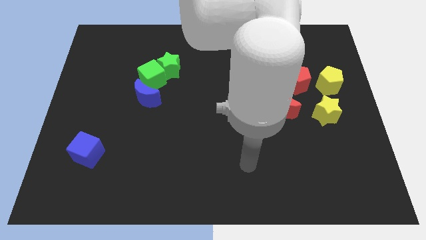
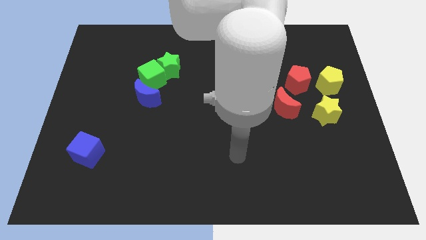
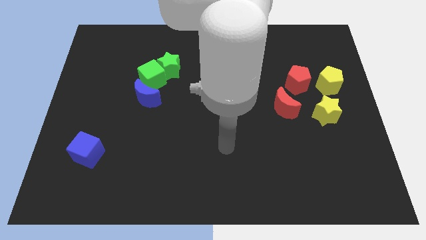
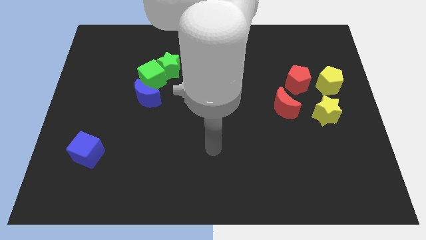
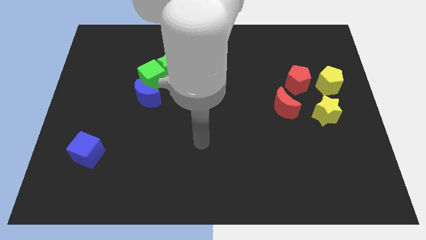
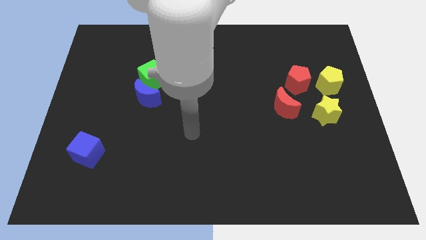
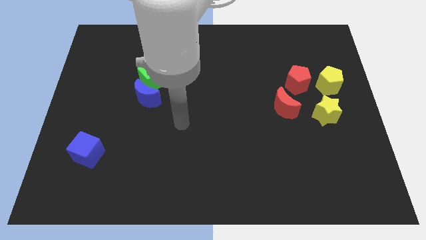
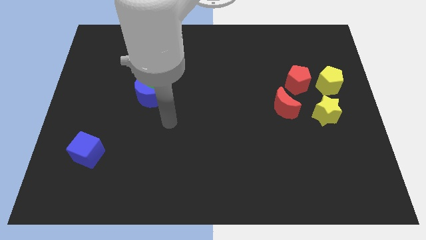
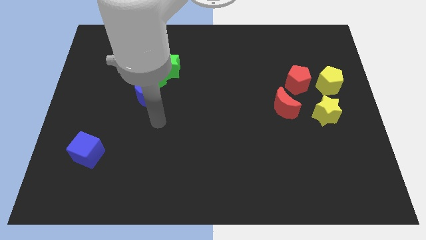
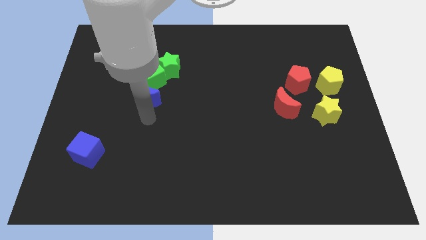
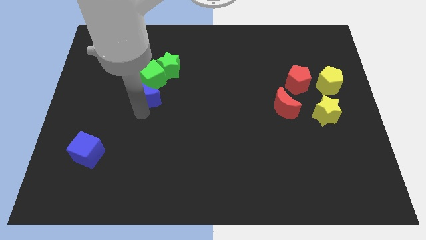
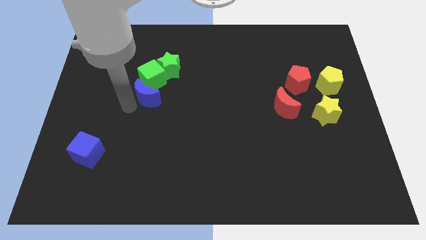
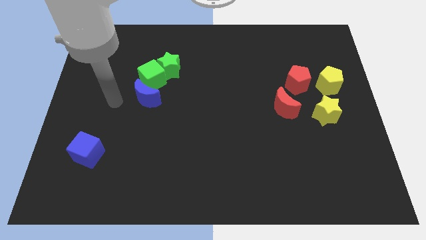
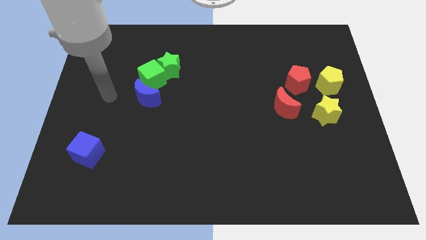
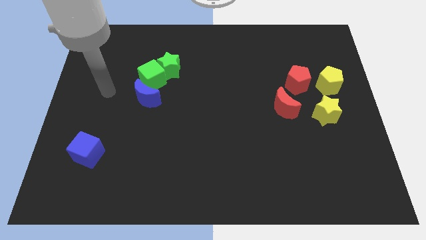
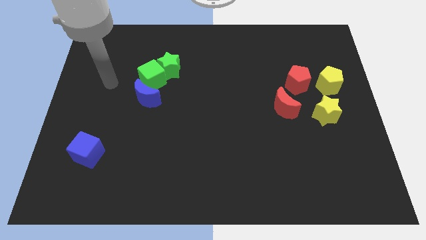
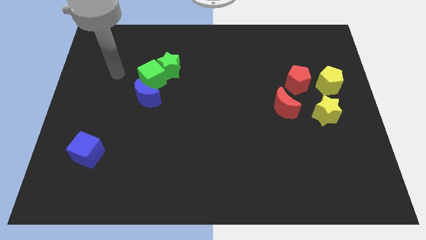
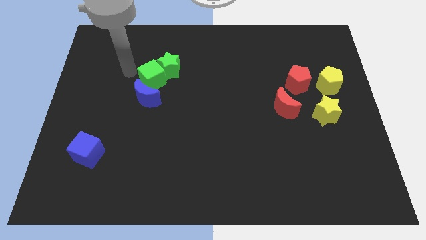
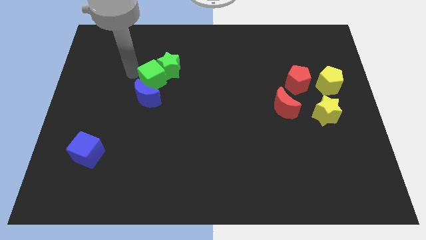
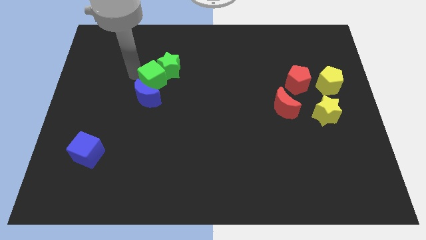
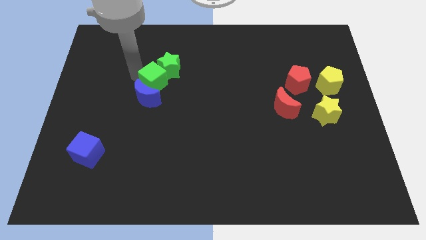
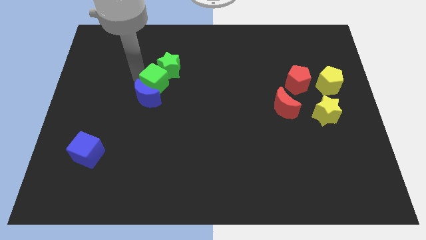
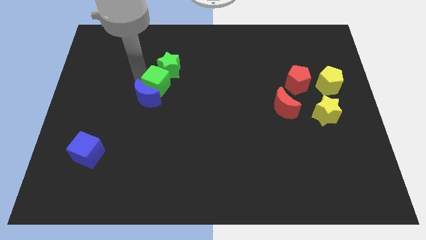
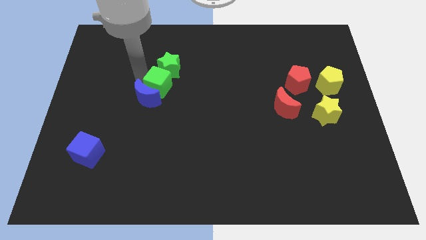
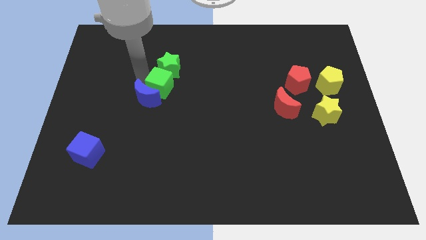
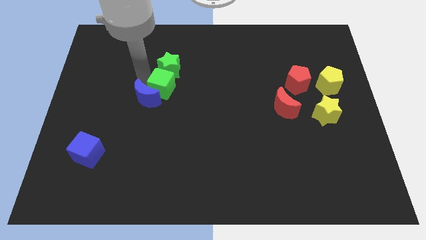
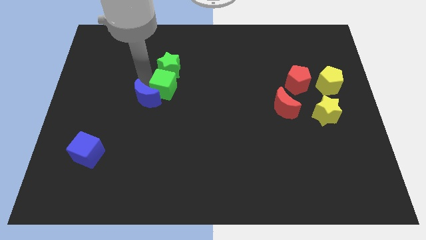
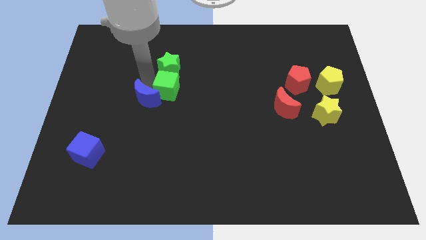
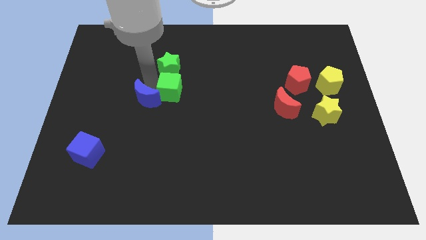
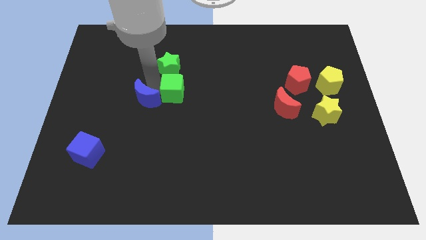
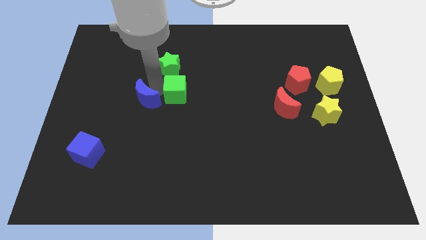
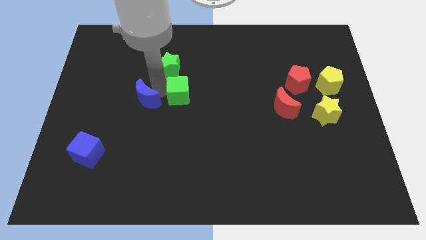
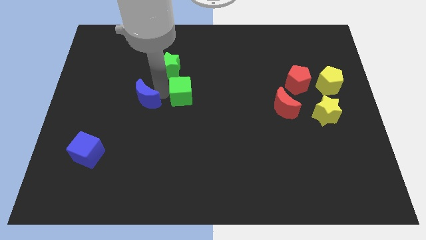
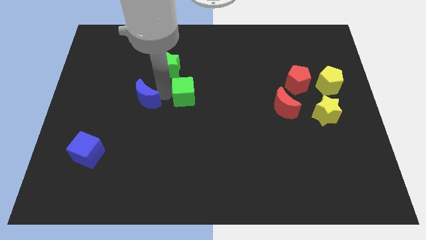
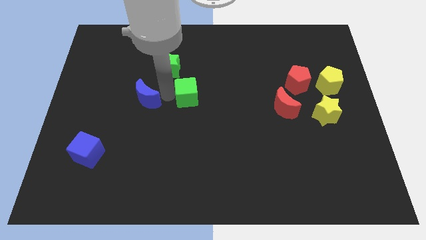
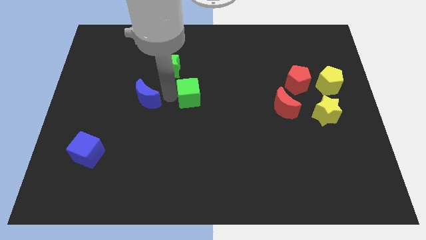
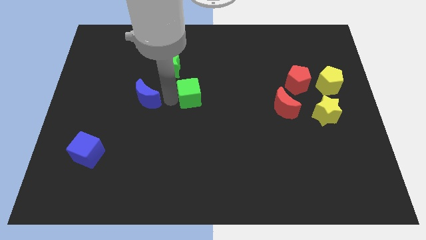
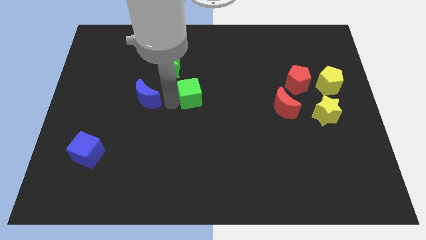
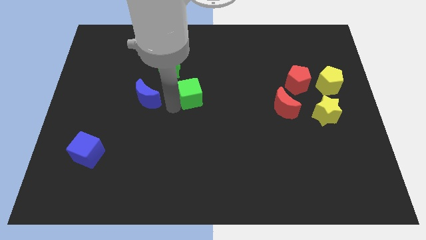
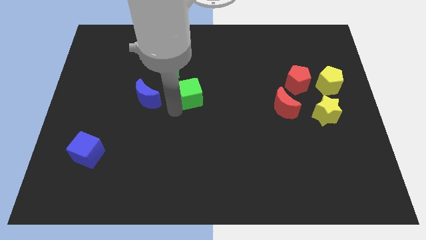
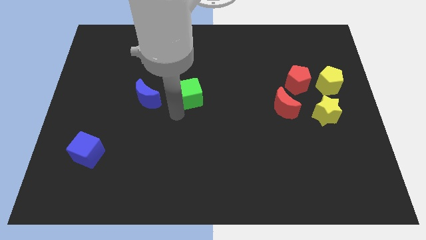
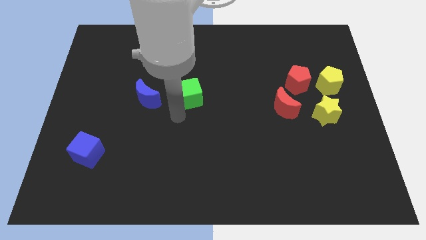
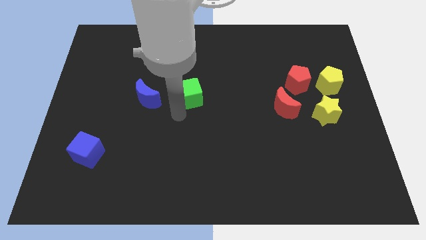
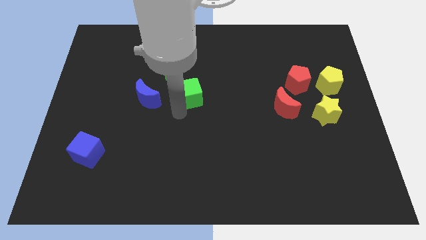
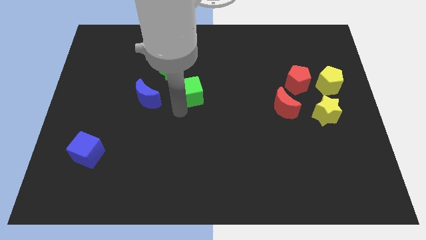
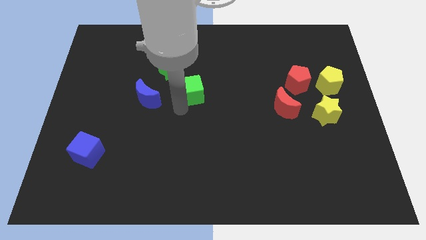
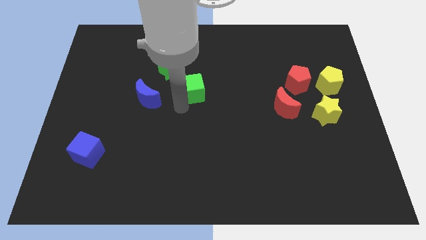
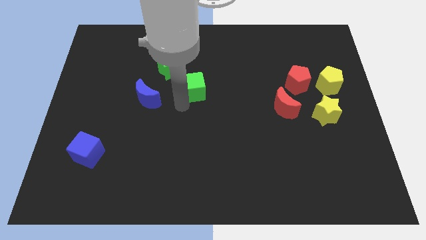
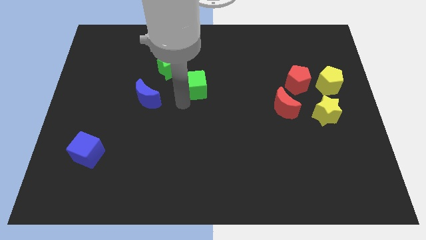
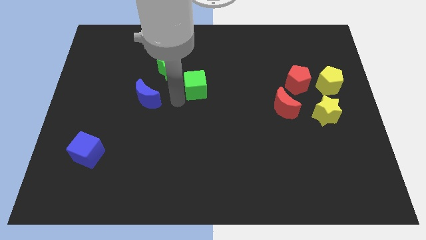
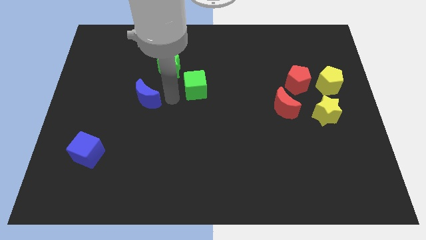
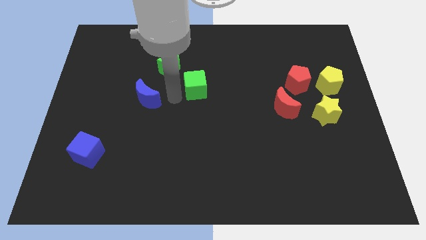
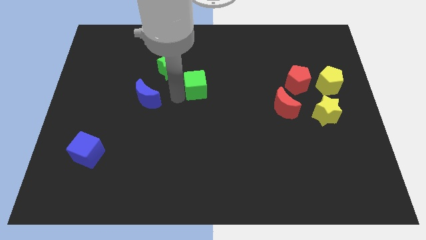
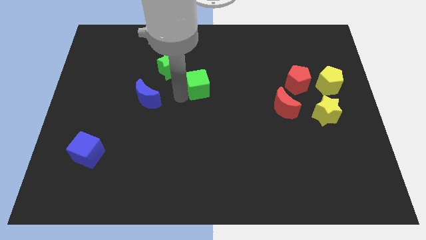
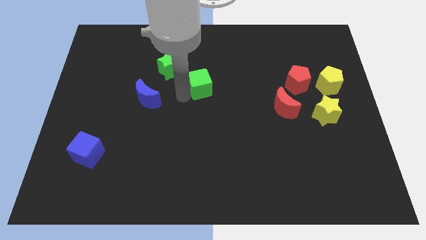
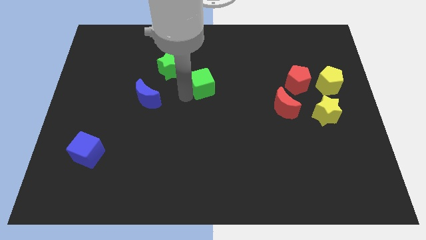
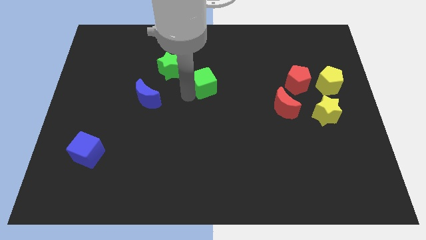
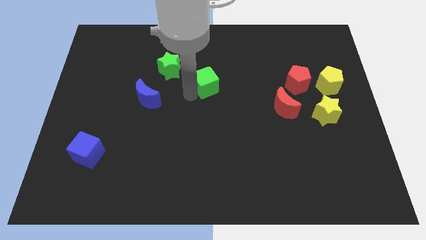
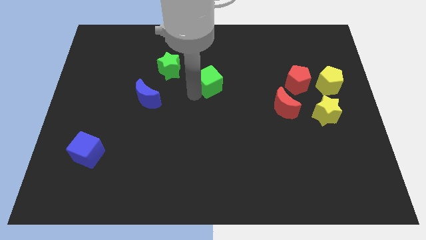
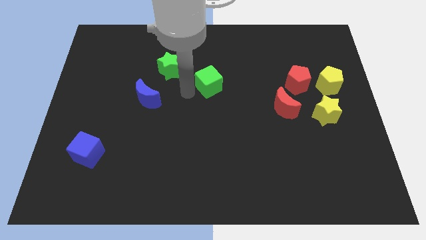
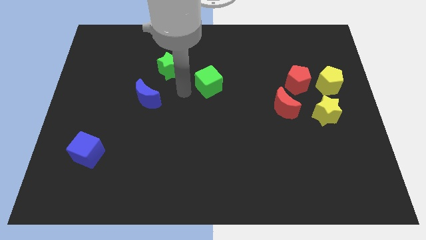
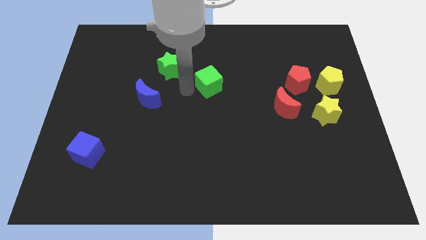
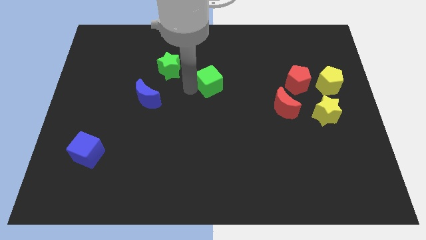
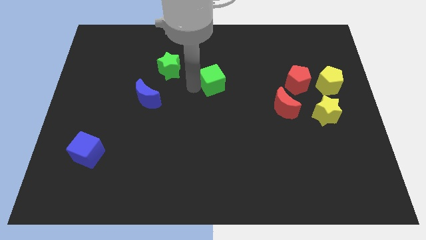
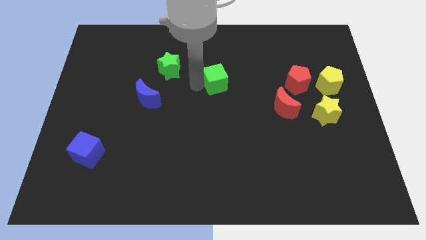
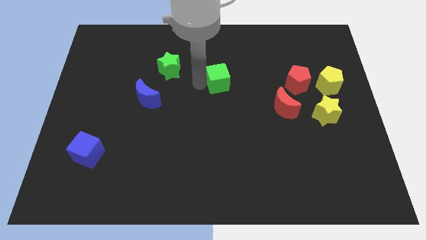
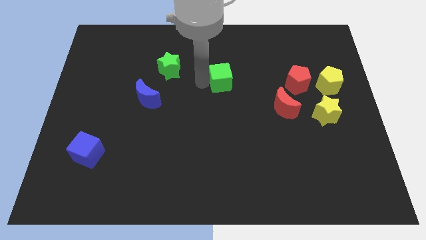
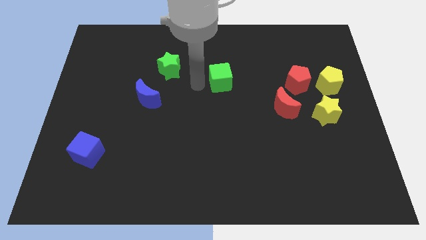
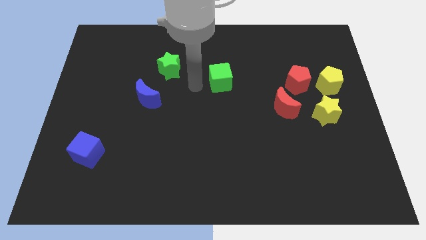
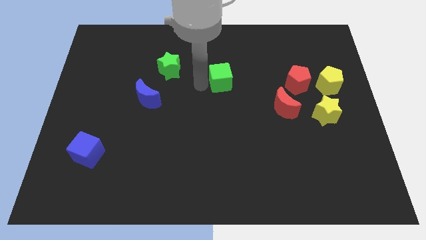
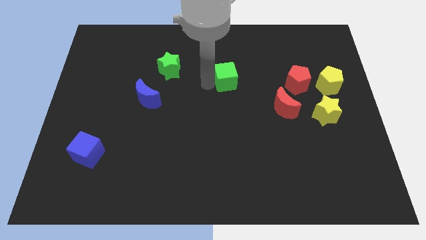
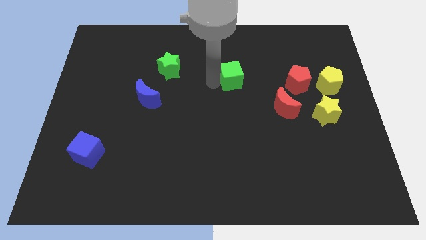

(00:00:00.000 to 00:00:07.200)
move the green cube to the right

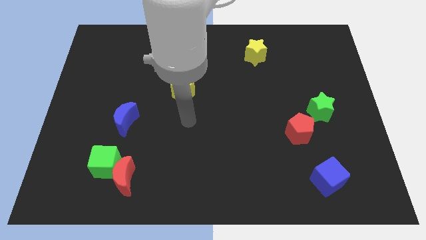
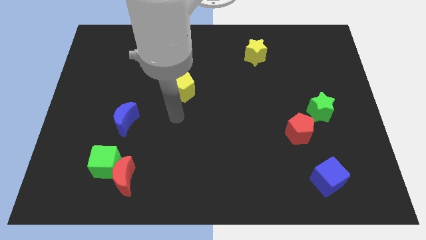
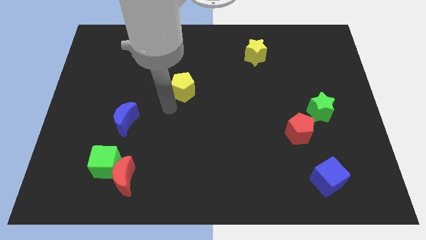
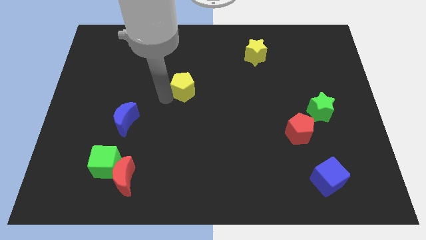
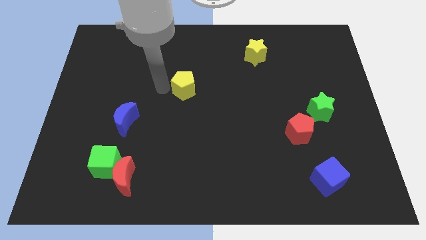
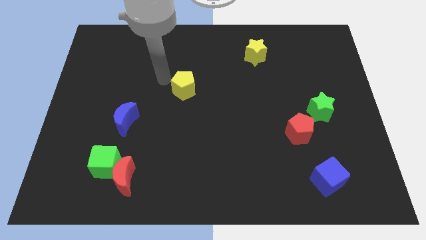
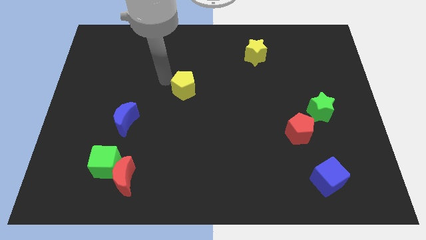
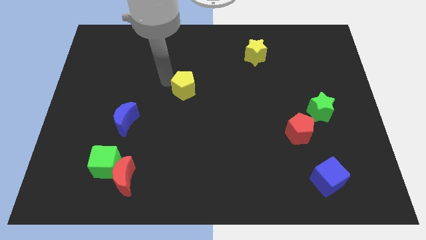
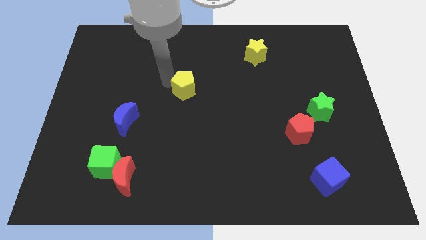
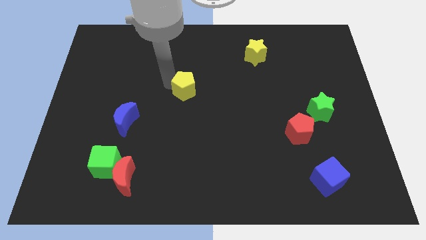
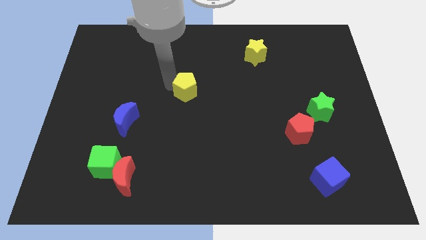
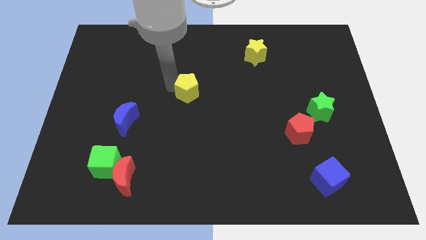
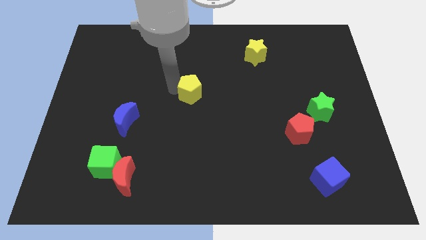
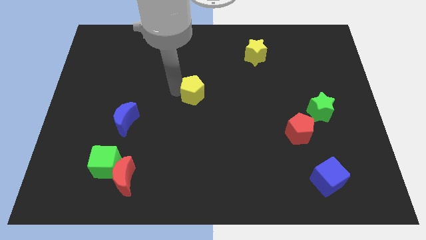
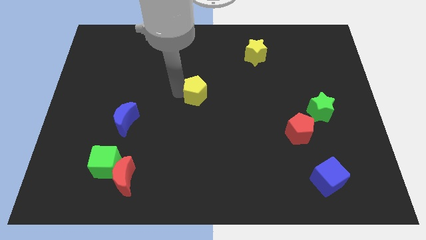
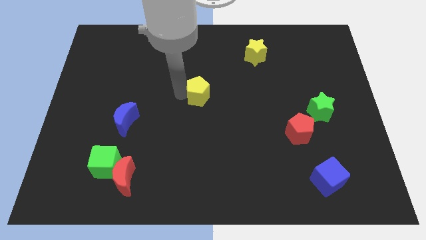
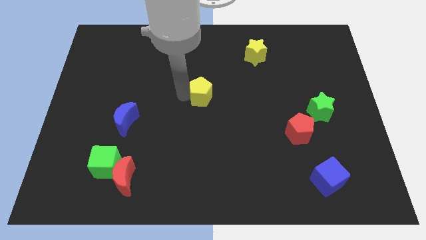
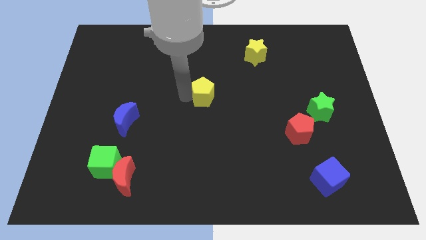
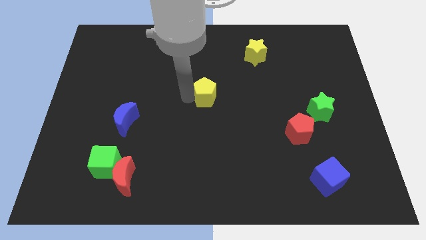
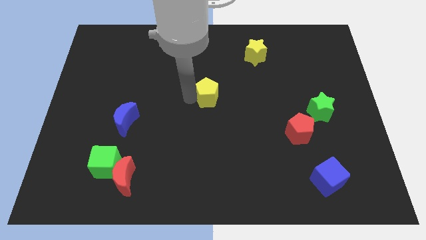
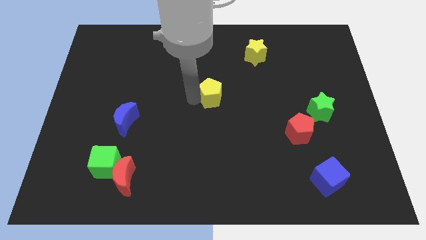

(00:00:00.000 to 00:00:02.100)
slide the yellow pentagon right a little
